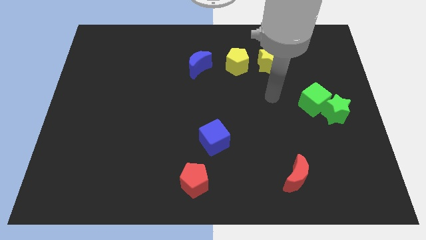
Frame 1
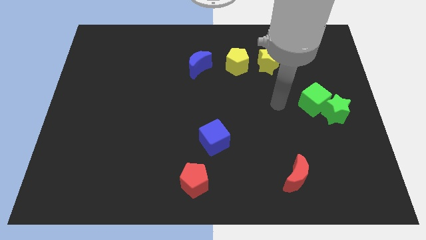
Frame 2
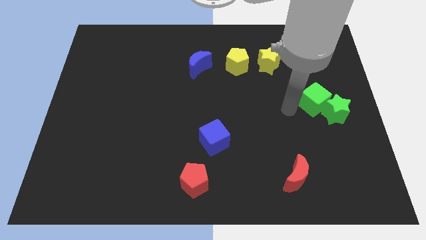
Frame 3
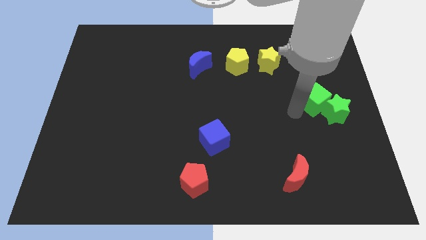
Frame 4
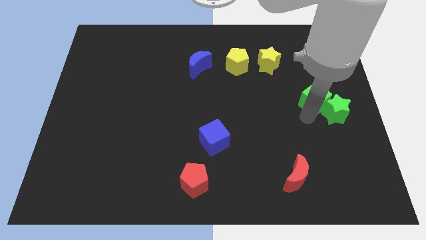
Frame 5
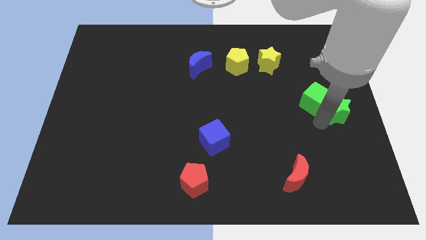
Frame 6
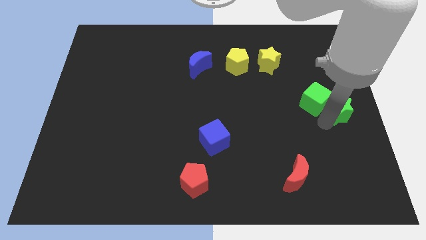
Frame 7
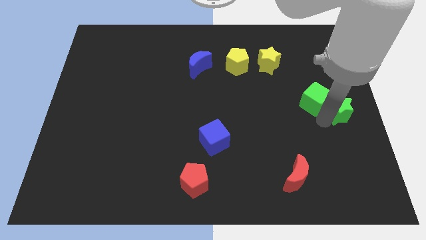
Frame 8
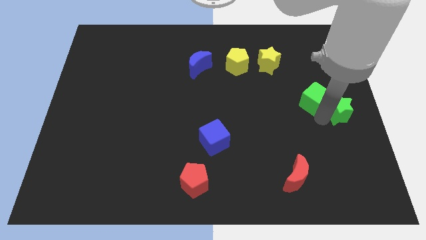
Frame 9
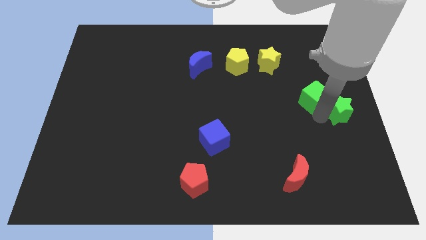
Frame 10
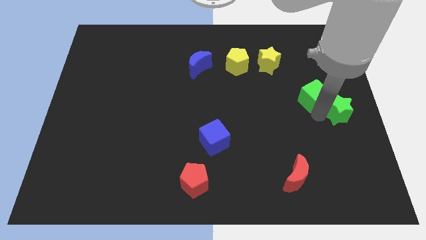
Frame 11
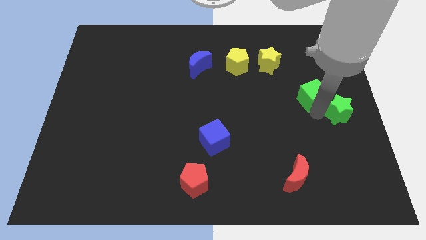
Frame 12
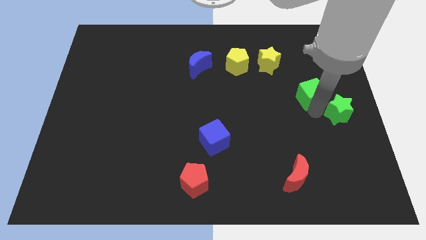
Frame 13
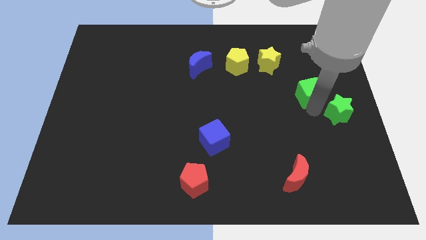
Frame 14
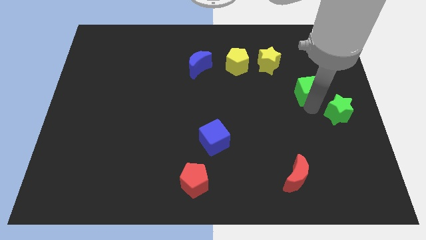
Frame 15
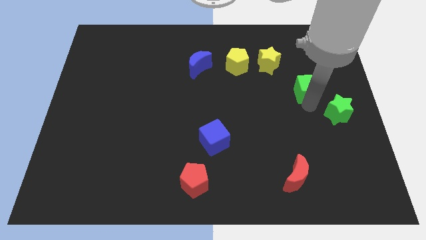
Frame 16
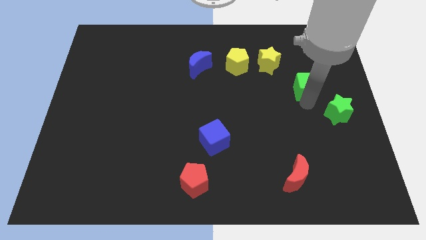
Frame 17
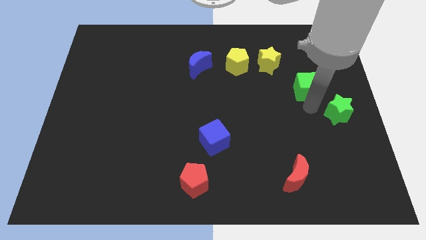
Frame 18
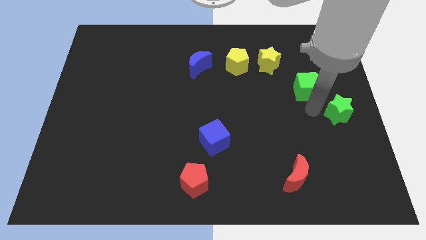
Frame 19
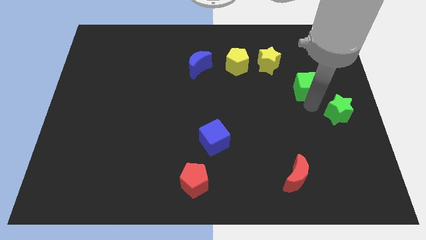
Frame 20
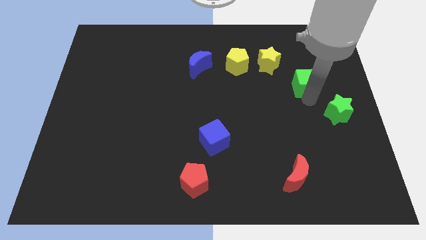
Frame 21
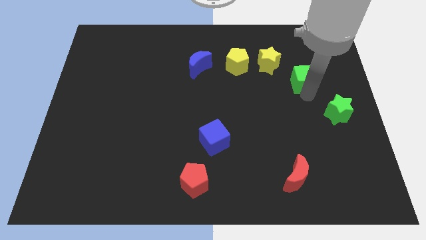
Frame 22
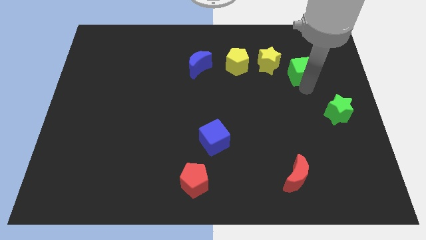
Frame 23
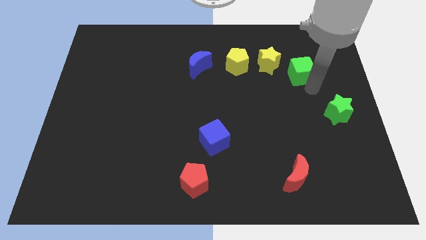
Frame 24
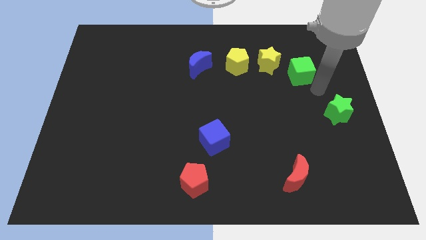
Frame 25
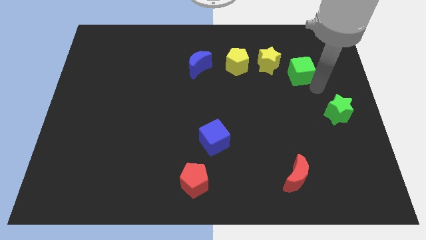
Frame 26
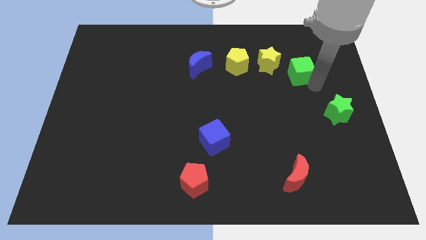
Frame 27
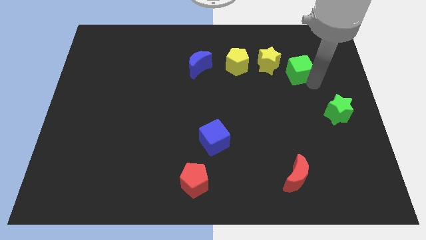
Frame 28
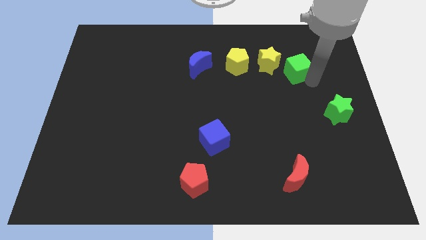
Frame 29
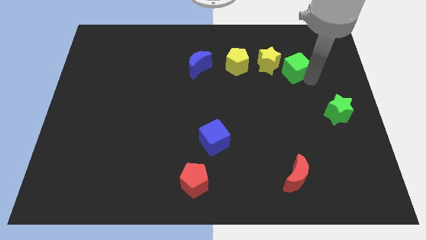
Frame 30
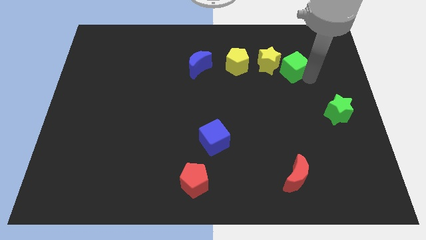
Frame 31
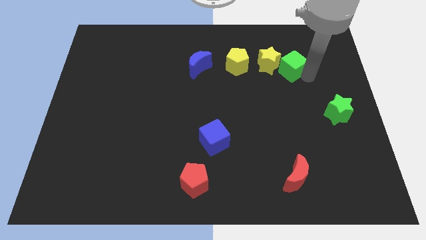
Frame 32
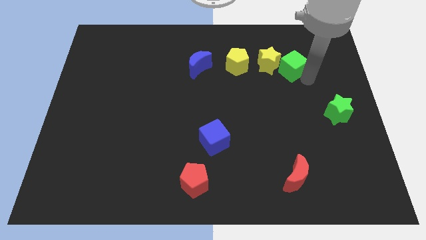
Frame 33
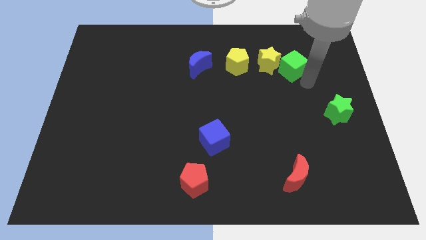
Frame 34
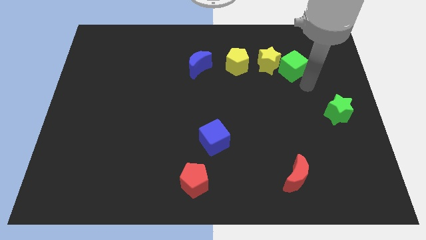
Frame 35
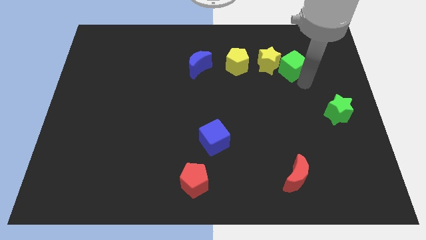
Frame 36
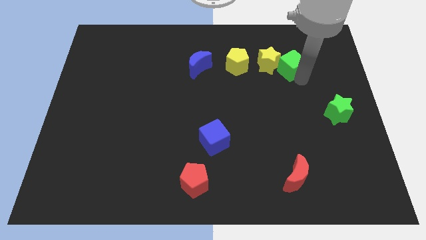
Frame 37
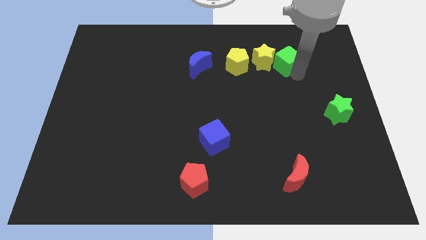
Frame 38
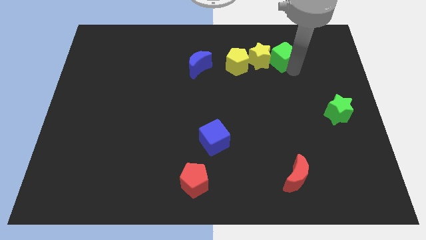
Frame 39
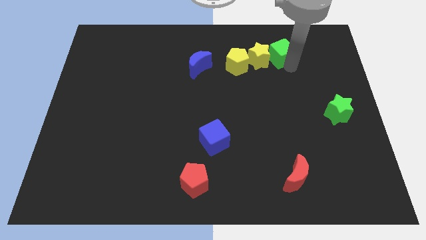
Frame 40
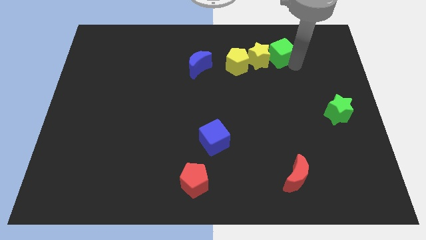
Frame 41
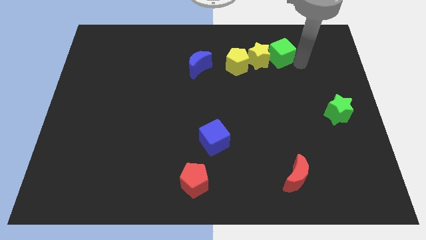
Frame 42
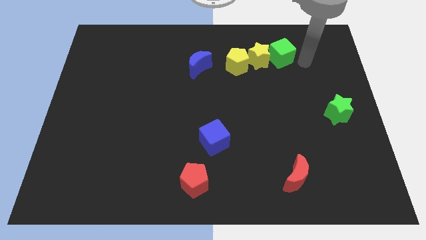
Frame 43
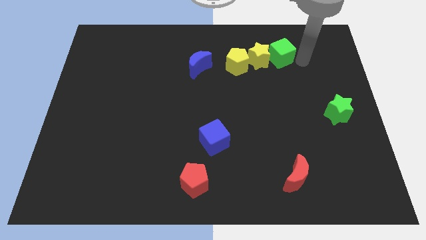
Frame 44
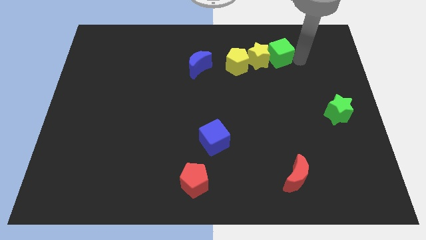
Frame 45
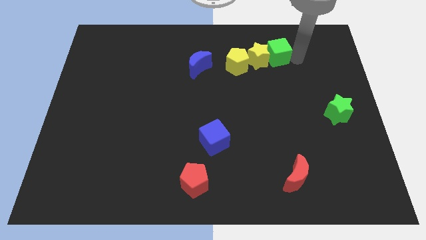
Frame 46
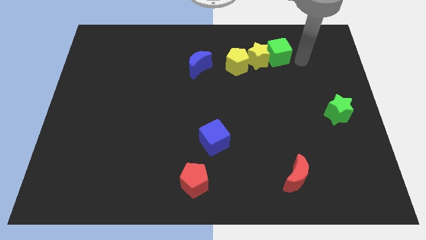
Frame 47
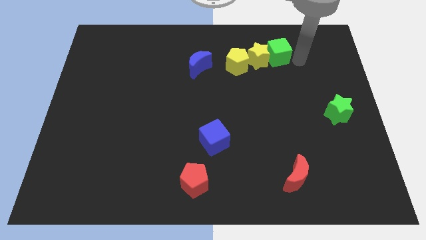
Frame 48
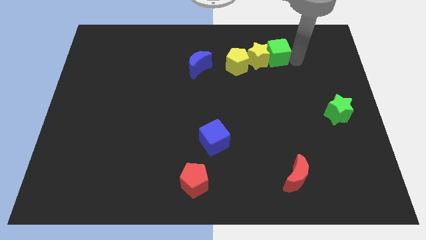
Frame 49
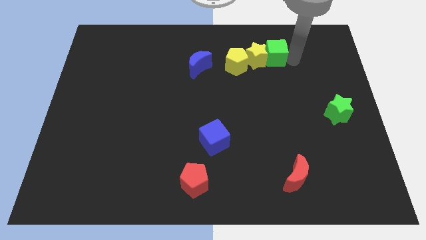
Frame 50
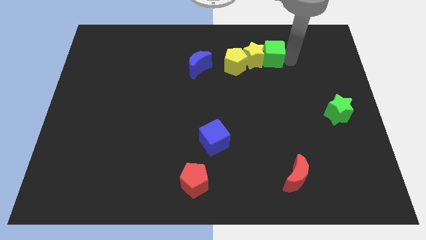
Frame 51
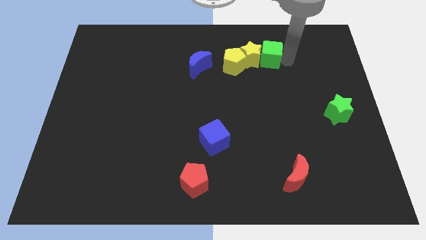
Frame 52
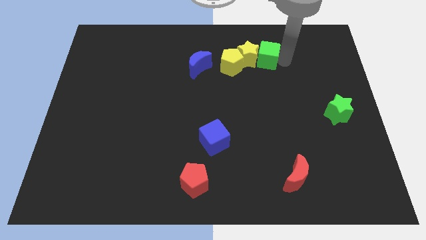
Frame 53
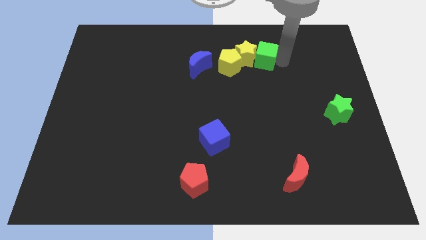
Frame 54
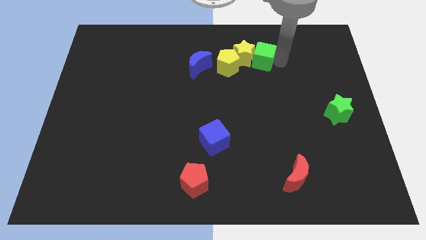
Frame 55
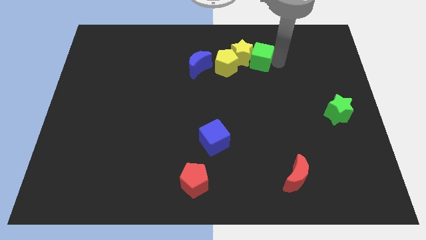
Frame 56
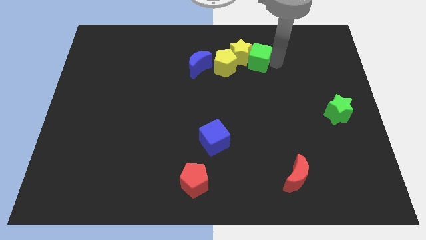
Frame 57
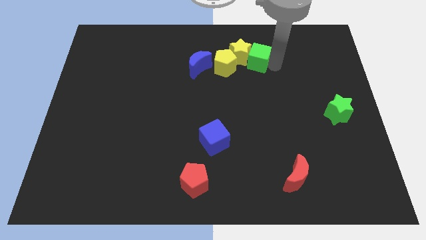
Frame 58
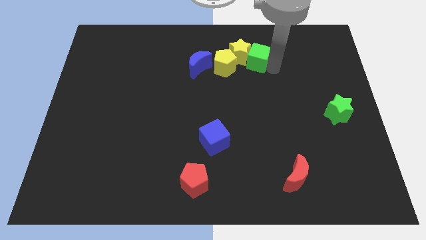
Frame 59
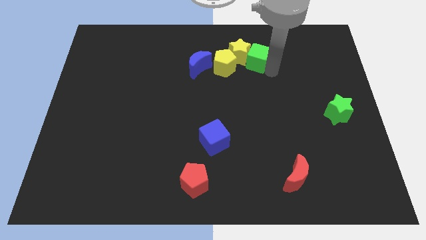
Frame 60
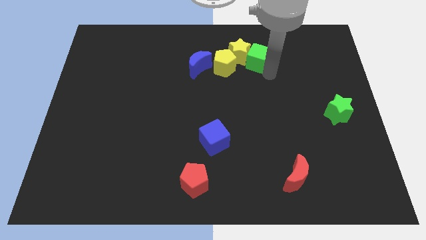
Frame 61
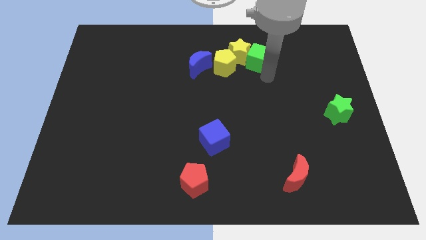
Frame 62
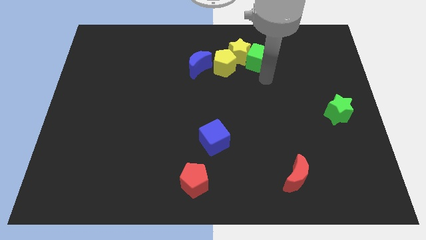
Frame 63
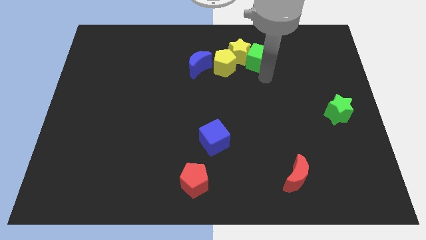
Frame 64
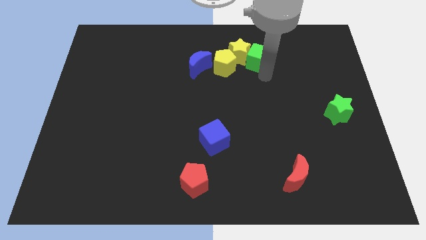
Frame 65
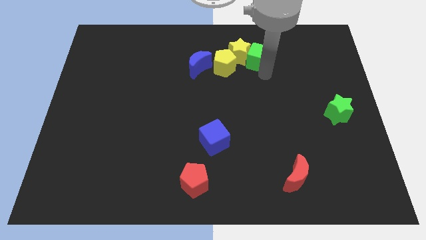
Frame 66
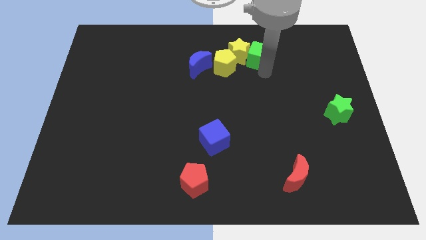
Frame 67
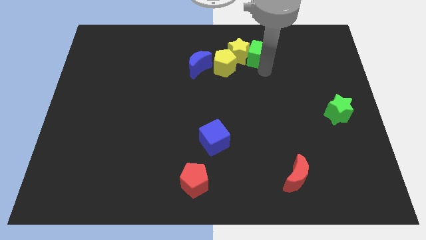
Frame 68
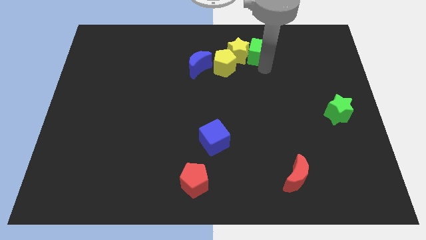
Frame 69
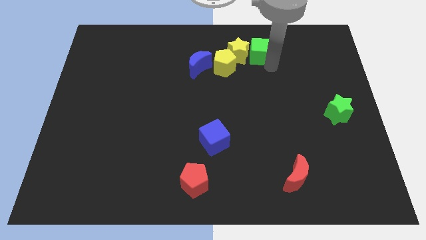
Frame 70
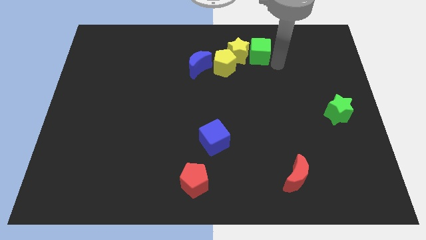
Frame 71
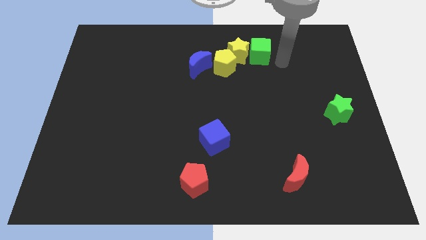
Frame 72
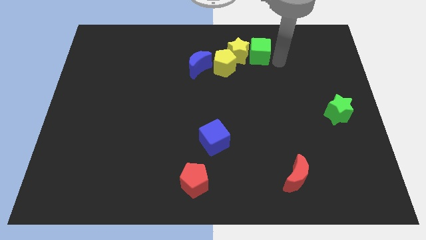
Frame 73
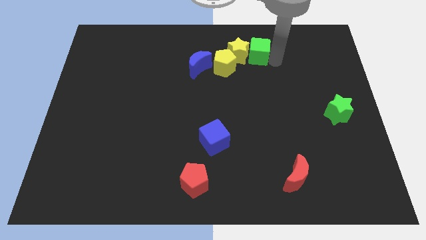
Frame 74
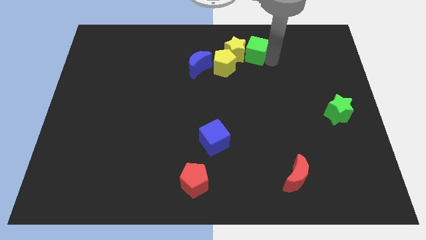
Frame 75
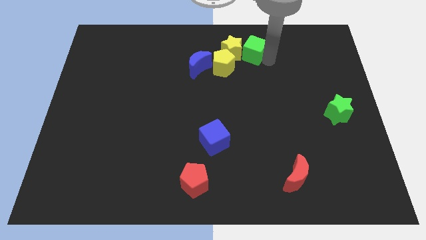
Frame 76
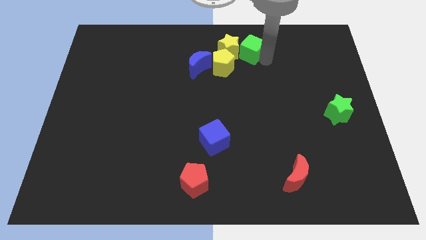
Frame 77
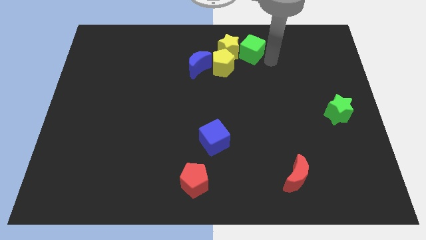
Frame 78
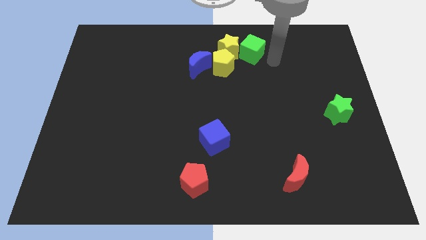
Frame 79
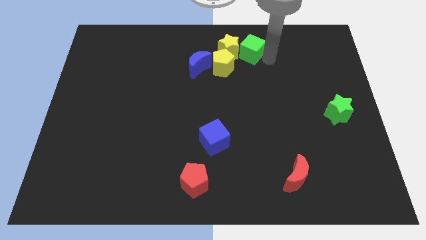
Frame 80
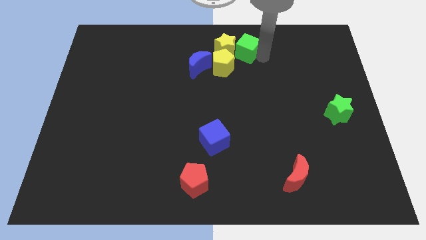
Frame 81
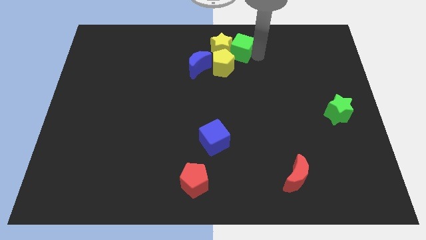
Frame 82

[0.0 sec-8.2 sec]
slide the green cube to the towards your base
